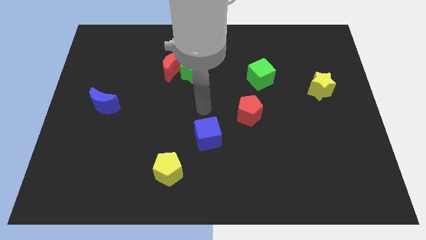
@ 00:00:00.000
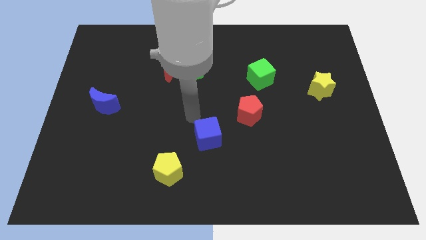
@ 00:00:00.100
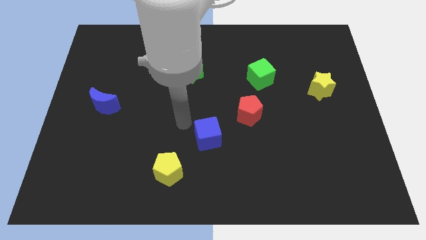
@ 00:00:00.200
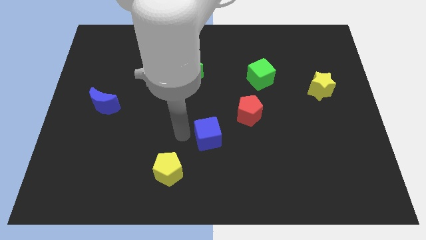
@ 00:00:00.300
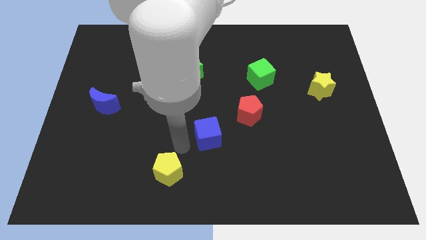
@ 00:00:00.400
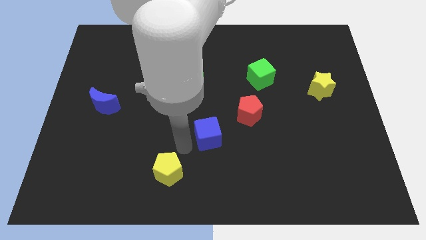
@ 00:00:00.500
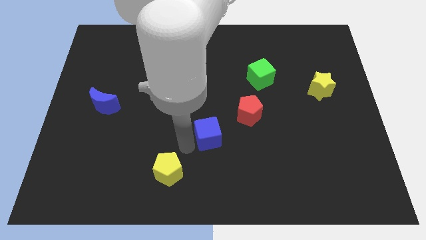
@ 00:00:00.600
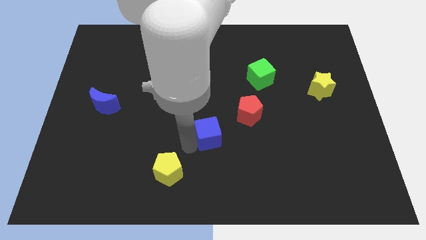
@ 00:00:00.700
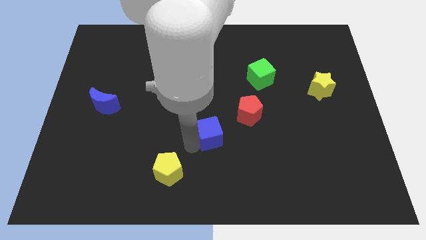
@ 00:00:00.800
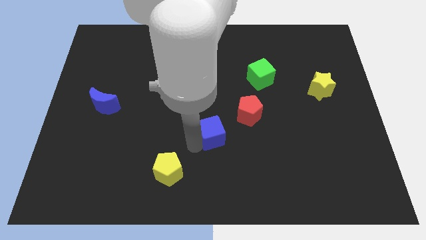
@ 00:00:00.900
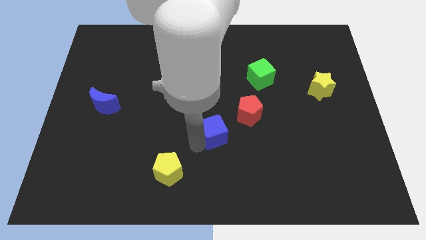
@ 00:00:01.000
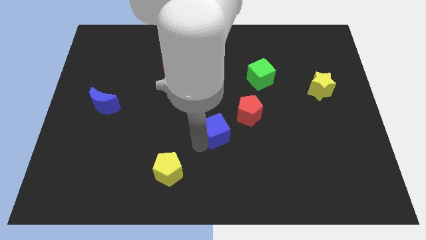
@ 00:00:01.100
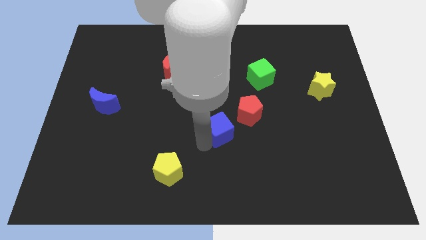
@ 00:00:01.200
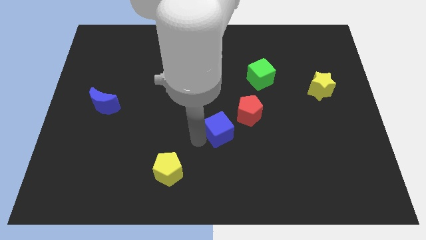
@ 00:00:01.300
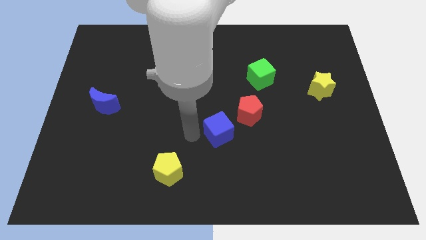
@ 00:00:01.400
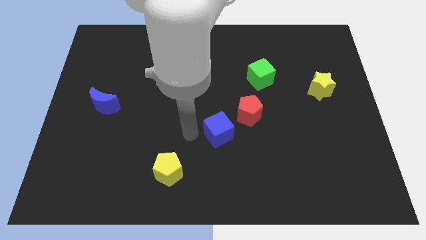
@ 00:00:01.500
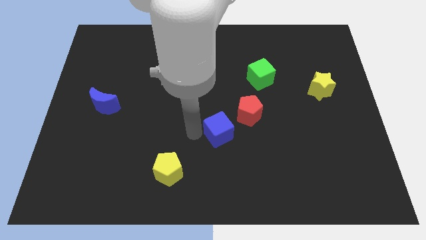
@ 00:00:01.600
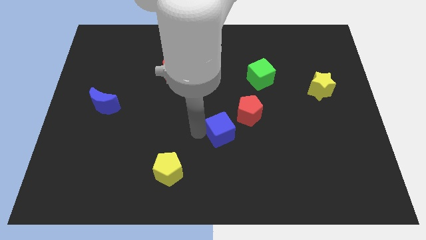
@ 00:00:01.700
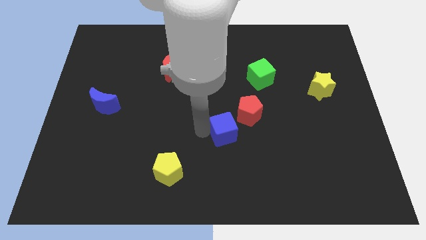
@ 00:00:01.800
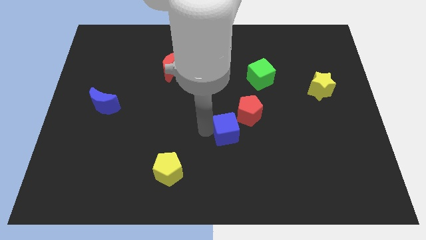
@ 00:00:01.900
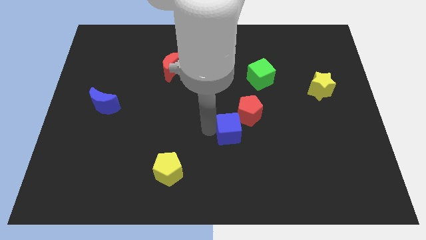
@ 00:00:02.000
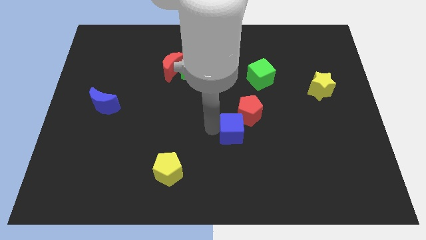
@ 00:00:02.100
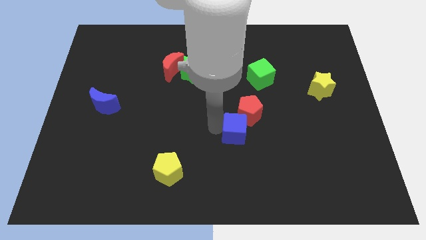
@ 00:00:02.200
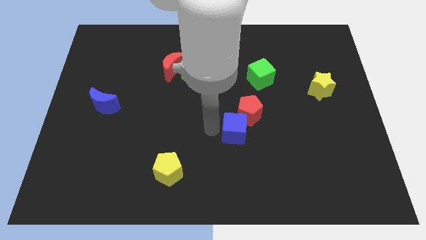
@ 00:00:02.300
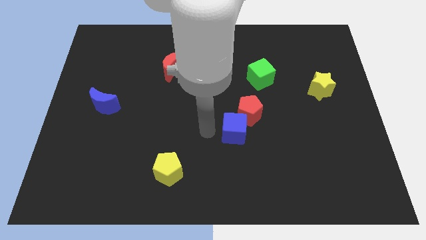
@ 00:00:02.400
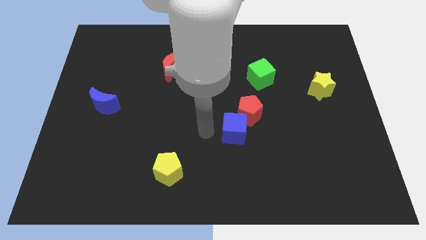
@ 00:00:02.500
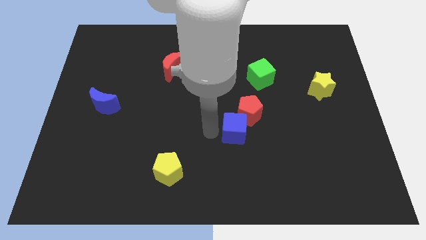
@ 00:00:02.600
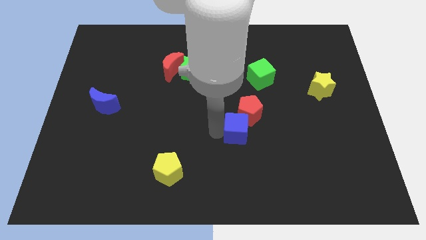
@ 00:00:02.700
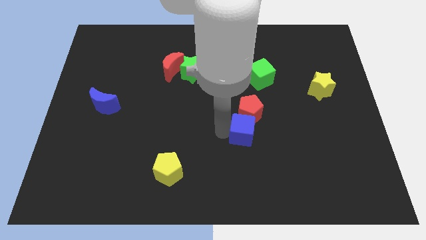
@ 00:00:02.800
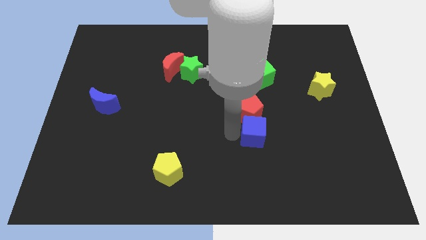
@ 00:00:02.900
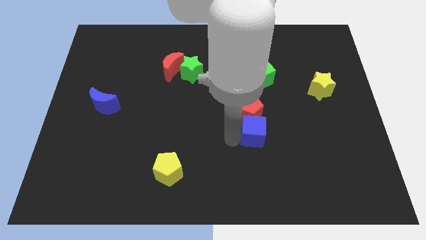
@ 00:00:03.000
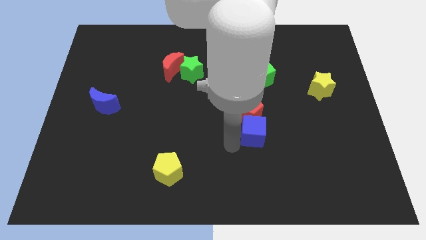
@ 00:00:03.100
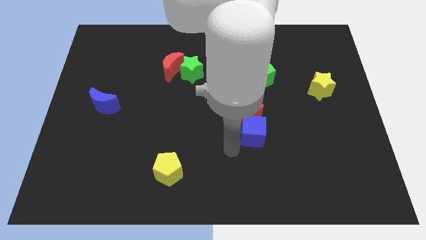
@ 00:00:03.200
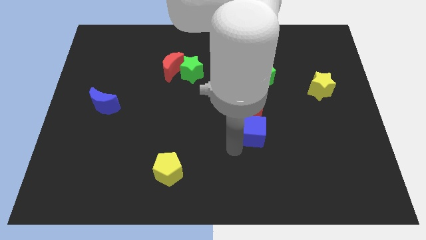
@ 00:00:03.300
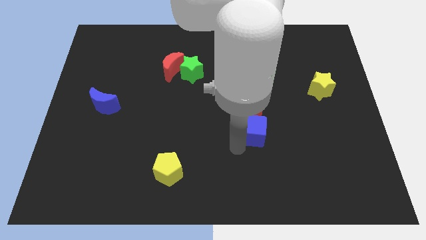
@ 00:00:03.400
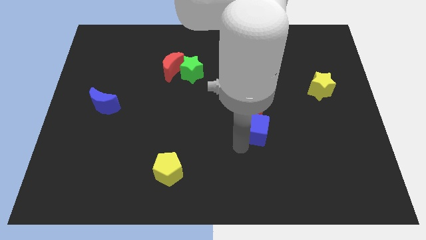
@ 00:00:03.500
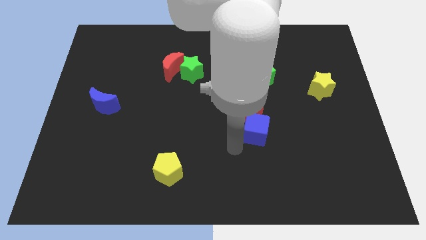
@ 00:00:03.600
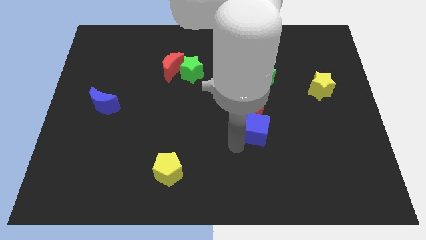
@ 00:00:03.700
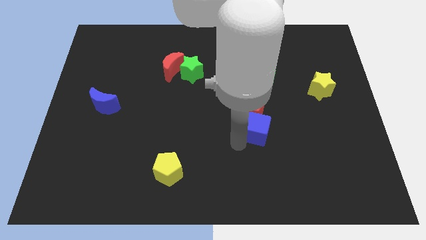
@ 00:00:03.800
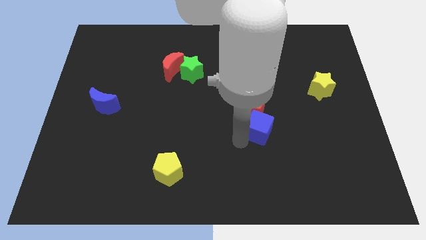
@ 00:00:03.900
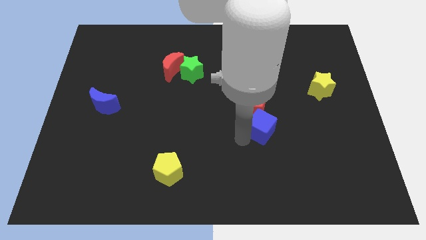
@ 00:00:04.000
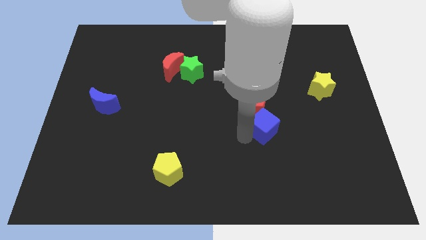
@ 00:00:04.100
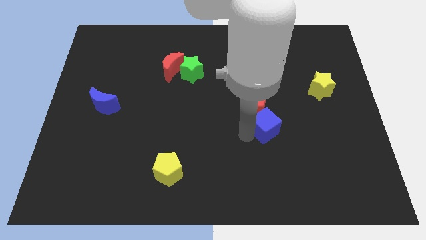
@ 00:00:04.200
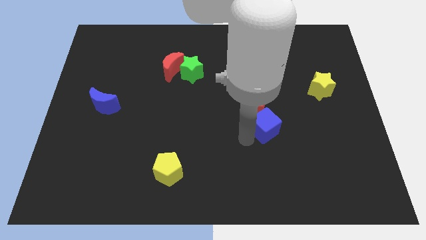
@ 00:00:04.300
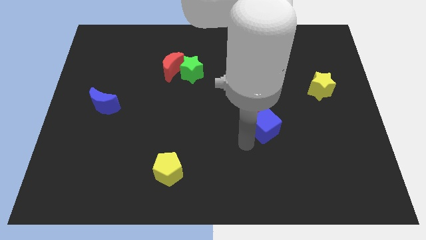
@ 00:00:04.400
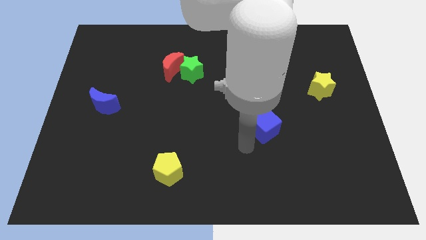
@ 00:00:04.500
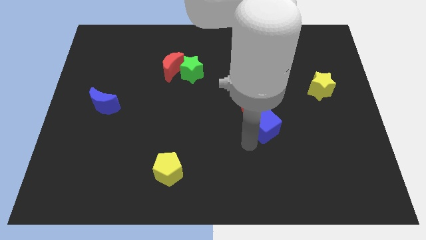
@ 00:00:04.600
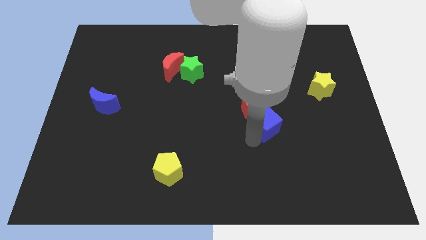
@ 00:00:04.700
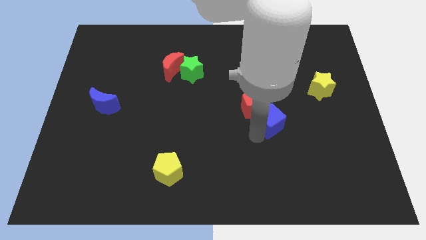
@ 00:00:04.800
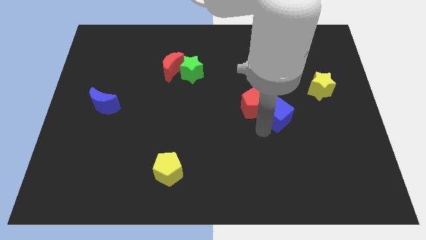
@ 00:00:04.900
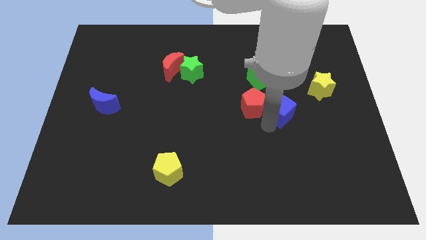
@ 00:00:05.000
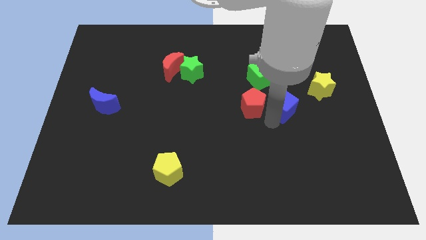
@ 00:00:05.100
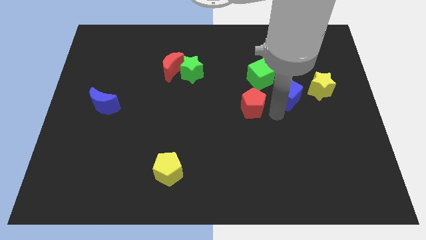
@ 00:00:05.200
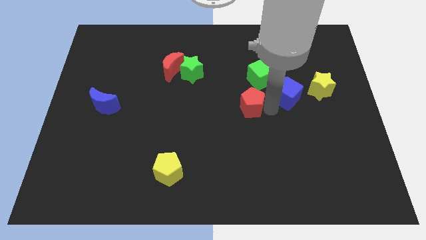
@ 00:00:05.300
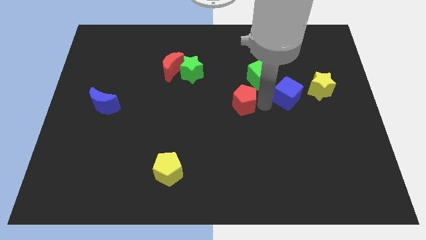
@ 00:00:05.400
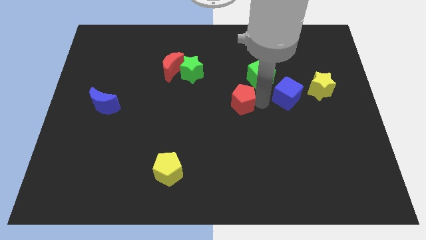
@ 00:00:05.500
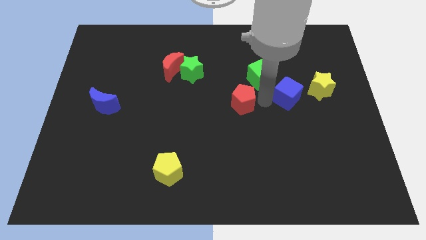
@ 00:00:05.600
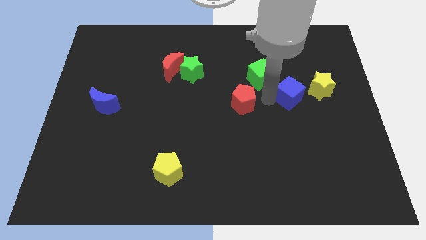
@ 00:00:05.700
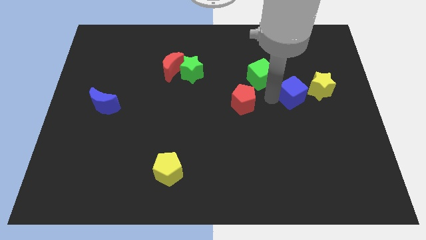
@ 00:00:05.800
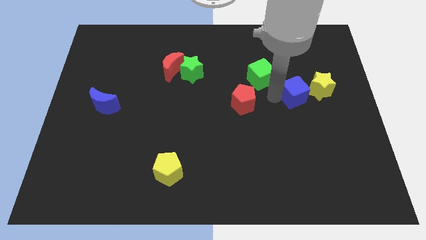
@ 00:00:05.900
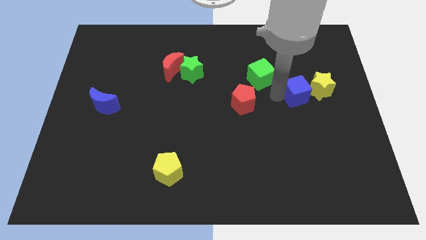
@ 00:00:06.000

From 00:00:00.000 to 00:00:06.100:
move the blue cube close to the yellow star

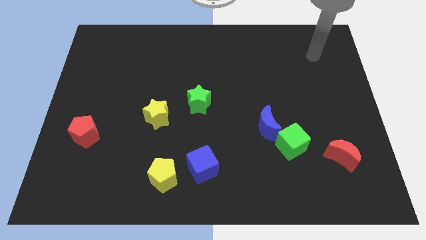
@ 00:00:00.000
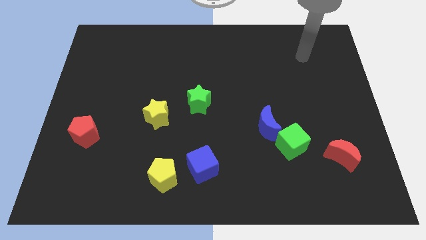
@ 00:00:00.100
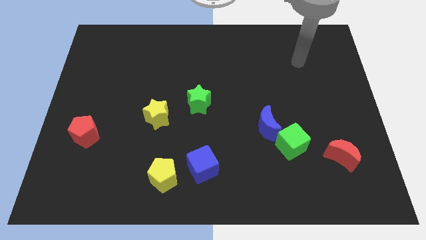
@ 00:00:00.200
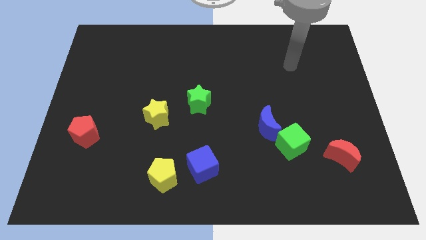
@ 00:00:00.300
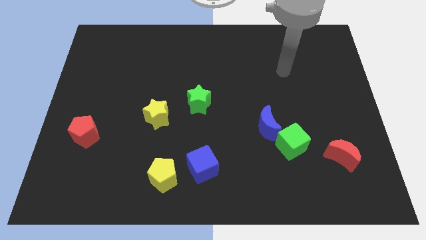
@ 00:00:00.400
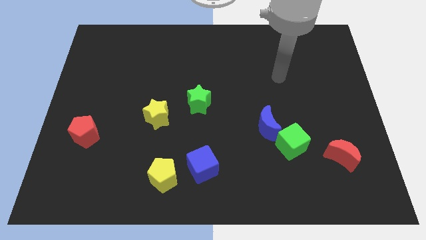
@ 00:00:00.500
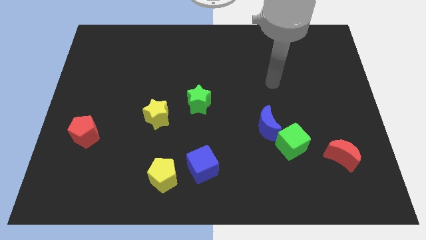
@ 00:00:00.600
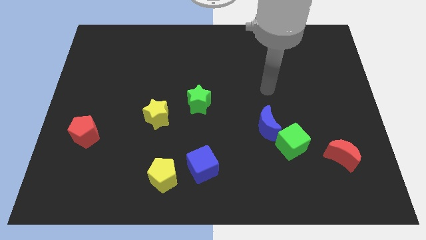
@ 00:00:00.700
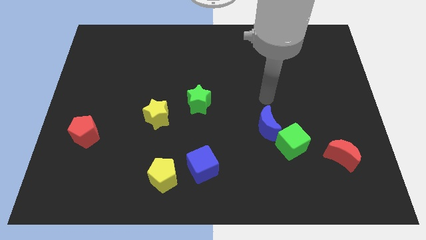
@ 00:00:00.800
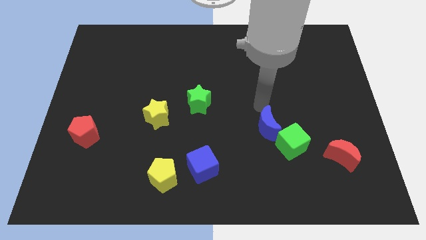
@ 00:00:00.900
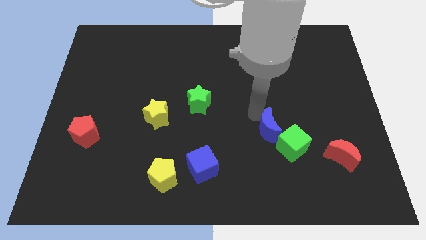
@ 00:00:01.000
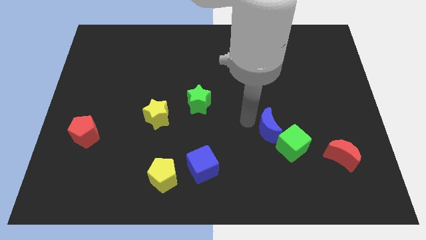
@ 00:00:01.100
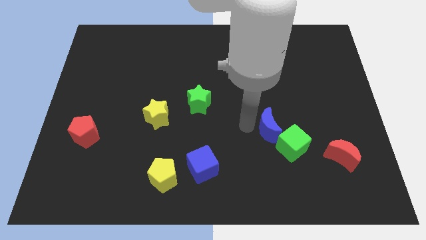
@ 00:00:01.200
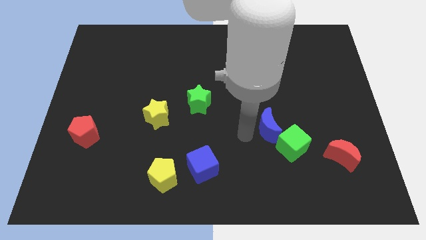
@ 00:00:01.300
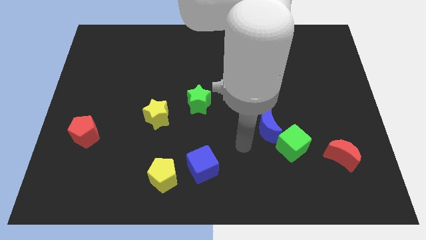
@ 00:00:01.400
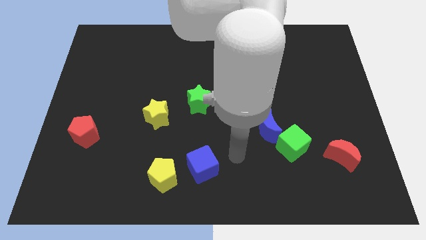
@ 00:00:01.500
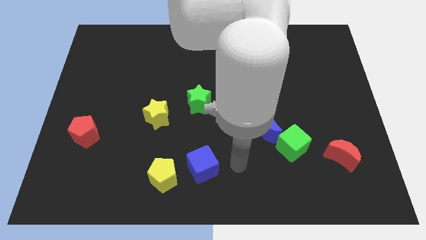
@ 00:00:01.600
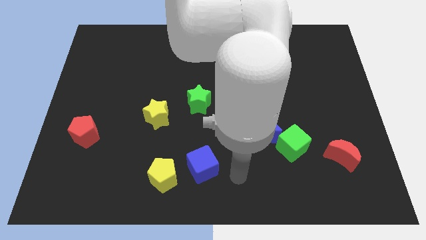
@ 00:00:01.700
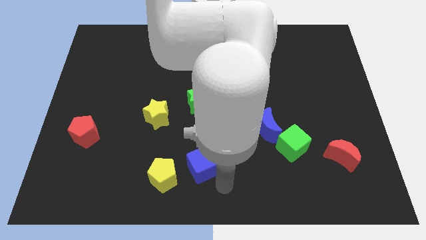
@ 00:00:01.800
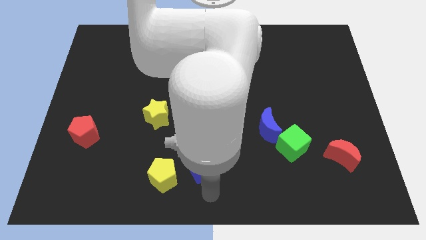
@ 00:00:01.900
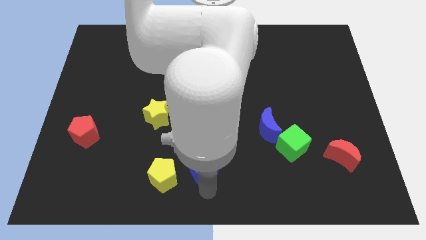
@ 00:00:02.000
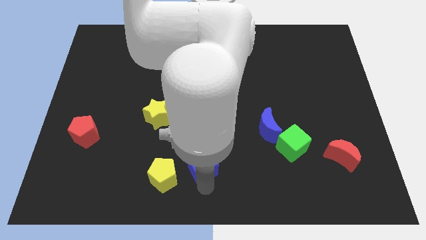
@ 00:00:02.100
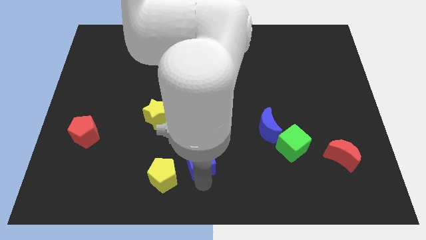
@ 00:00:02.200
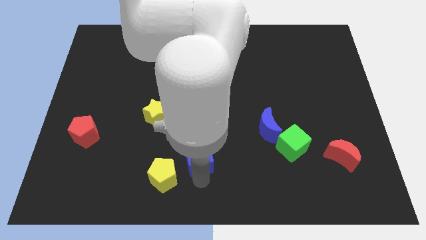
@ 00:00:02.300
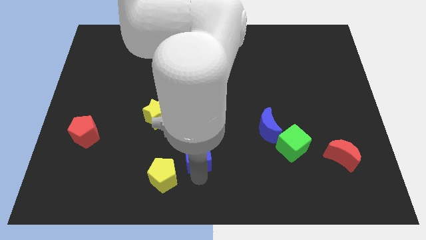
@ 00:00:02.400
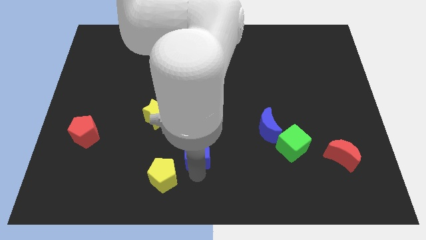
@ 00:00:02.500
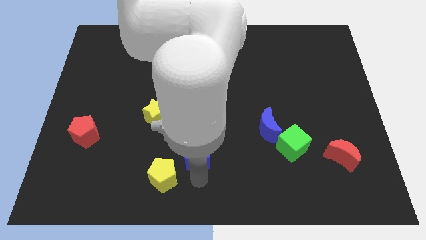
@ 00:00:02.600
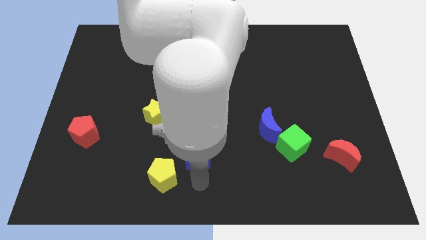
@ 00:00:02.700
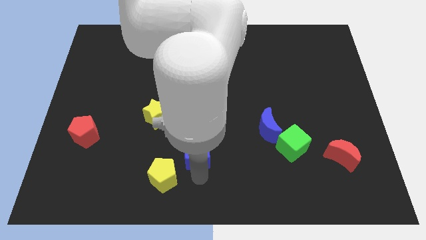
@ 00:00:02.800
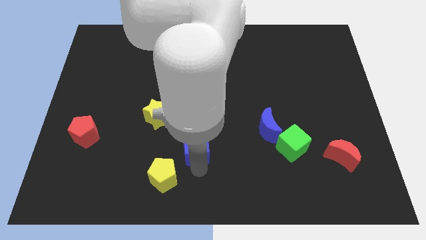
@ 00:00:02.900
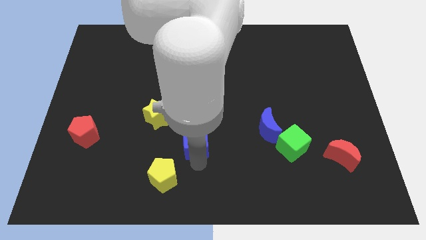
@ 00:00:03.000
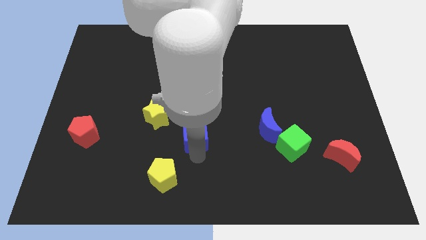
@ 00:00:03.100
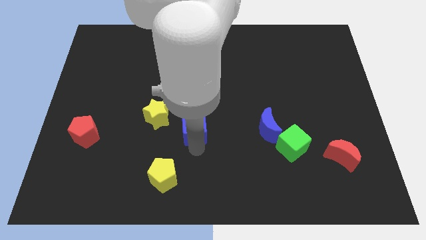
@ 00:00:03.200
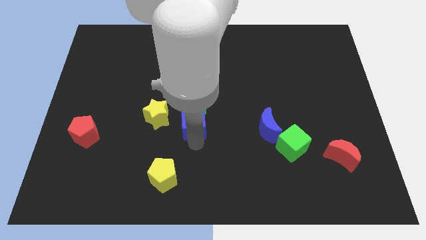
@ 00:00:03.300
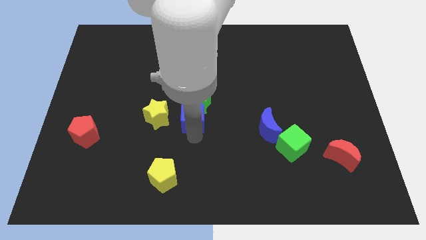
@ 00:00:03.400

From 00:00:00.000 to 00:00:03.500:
push the blue cube close to the green star
